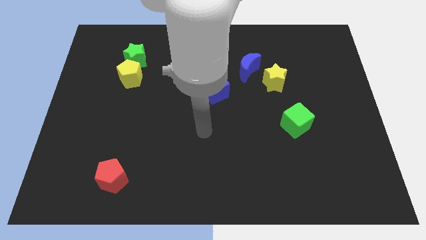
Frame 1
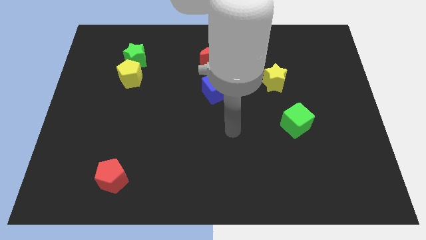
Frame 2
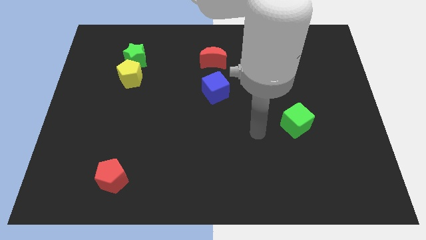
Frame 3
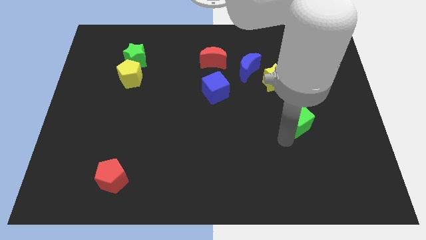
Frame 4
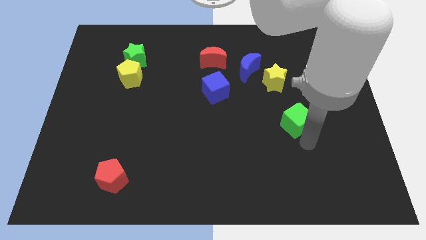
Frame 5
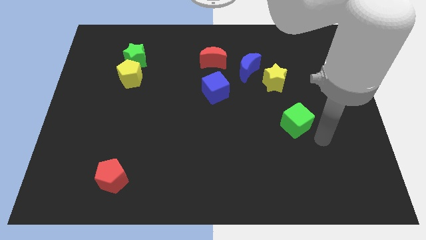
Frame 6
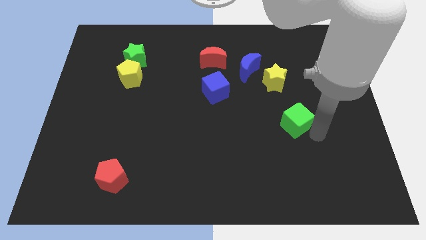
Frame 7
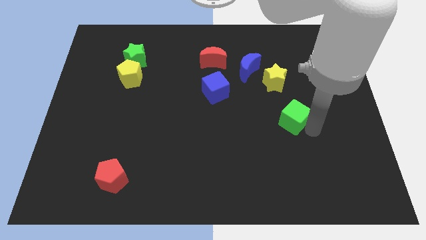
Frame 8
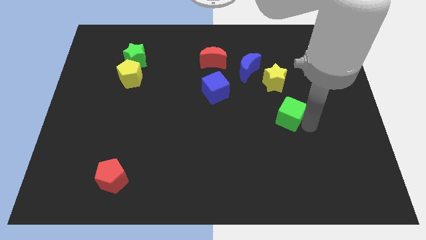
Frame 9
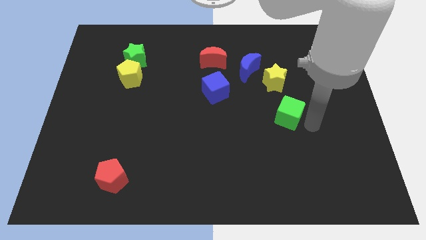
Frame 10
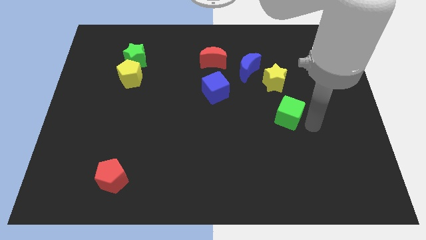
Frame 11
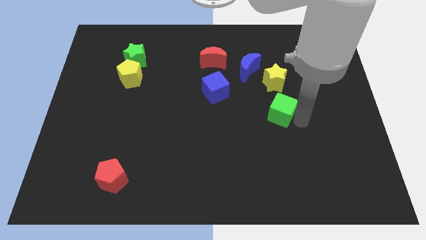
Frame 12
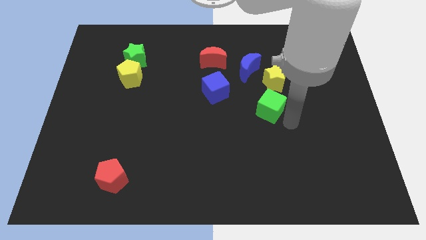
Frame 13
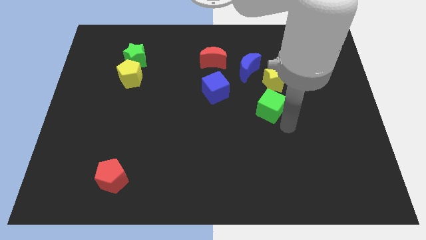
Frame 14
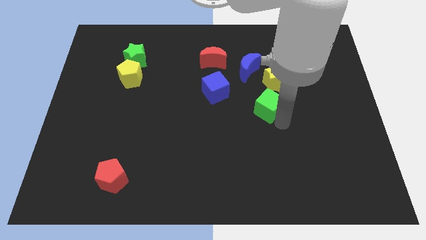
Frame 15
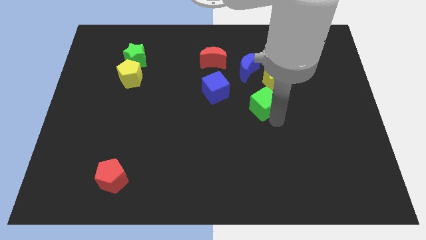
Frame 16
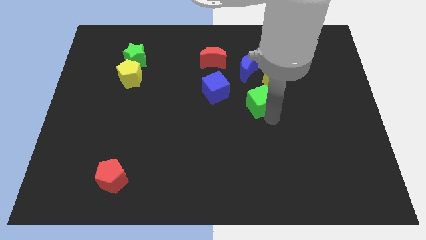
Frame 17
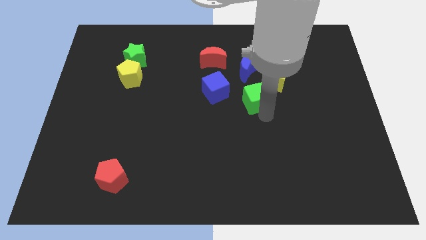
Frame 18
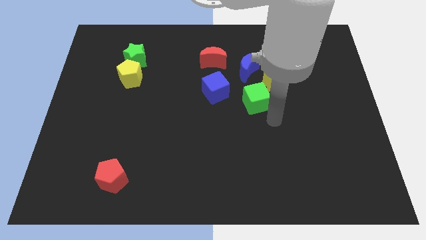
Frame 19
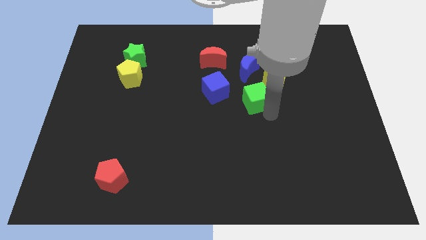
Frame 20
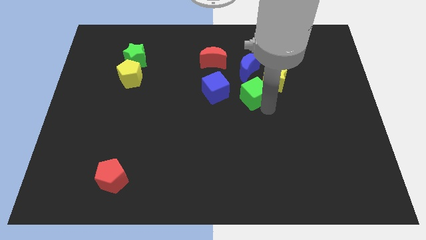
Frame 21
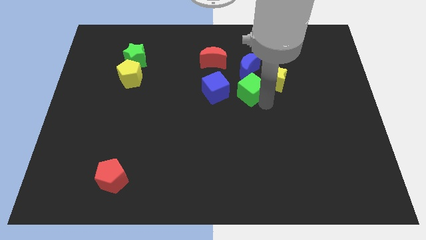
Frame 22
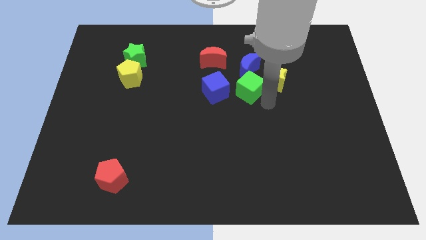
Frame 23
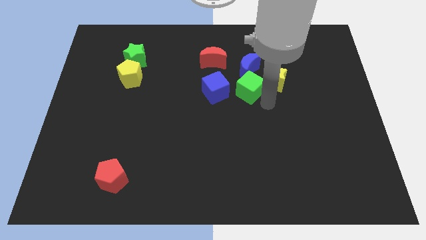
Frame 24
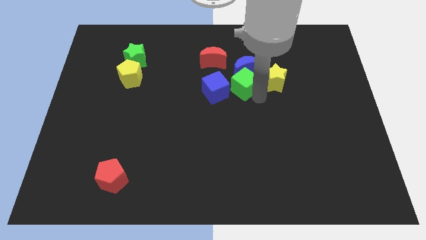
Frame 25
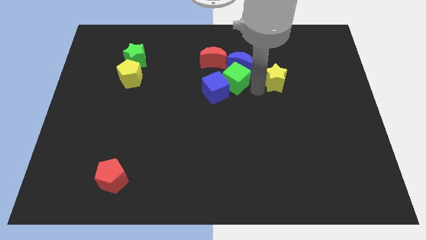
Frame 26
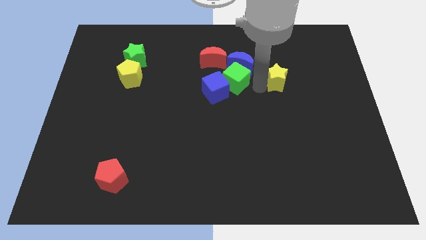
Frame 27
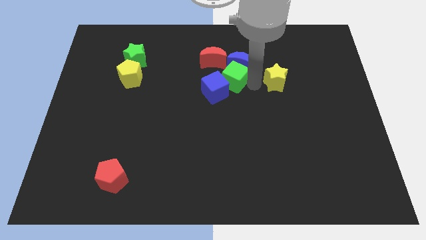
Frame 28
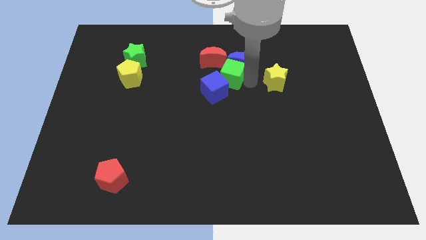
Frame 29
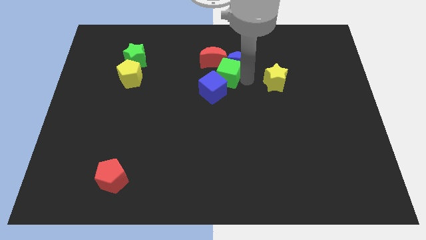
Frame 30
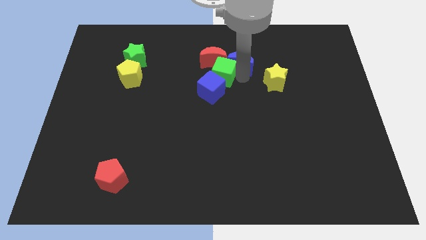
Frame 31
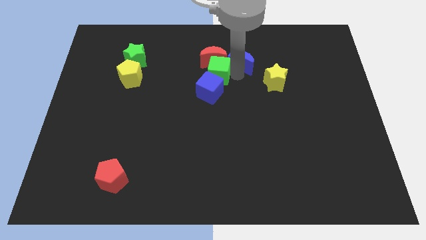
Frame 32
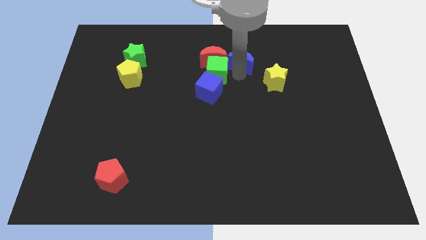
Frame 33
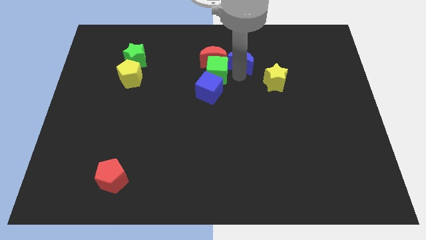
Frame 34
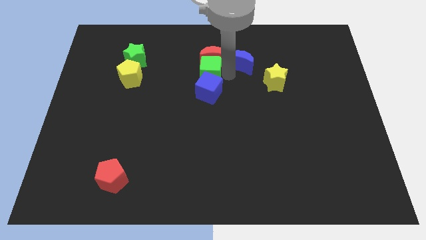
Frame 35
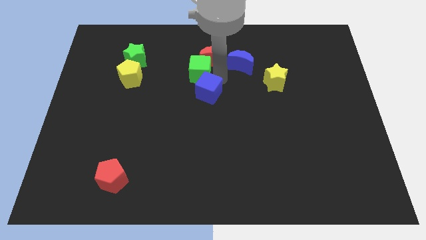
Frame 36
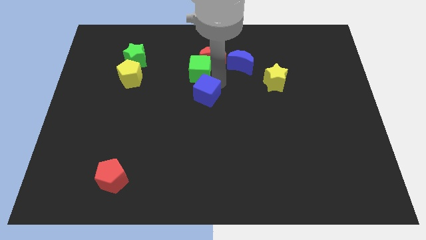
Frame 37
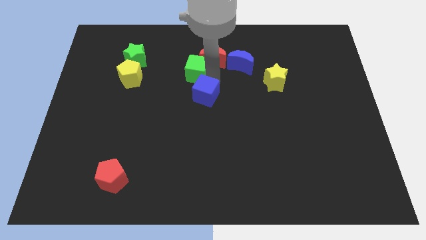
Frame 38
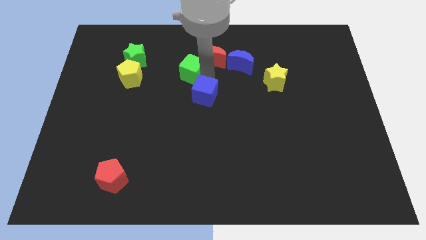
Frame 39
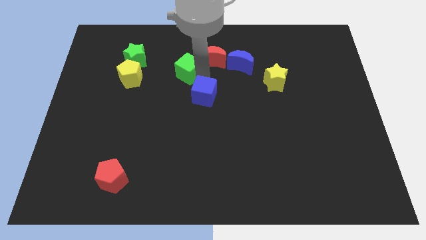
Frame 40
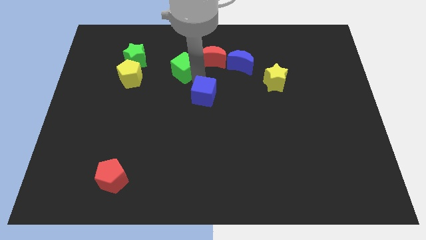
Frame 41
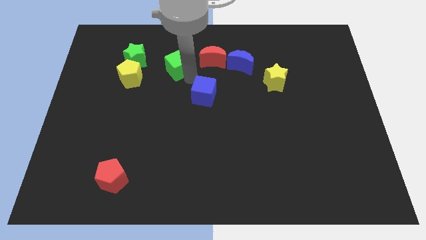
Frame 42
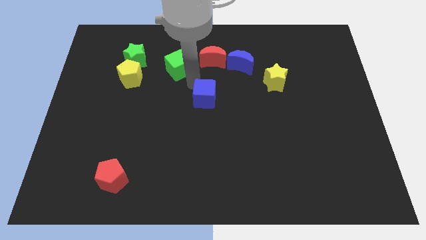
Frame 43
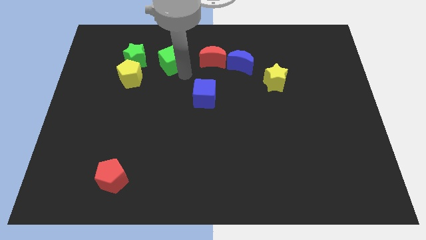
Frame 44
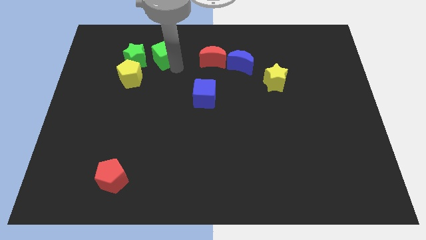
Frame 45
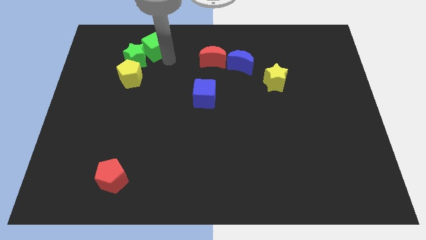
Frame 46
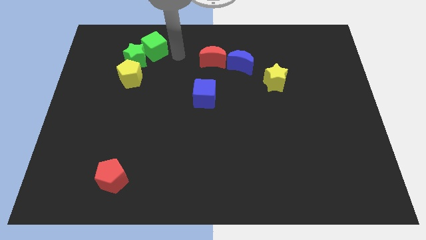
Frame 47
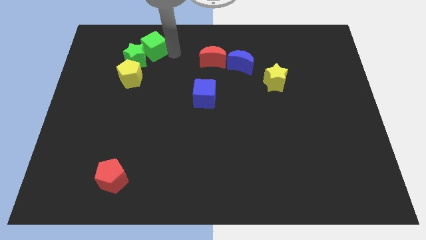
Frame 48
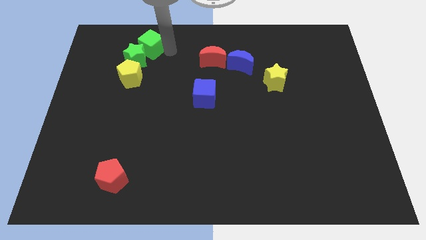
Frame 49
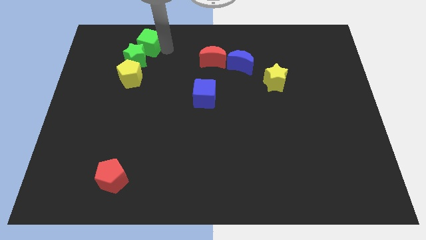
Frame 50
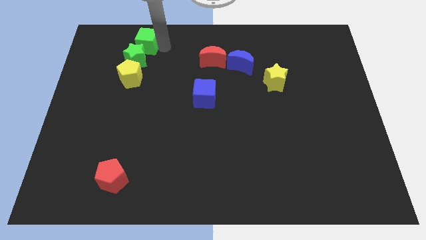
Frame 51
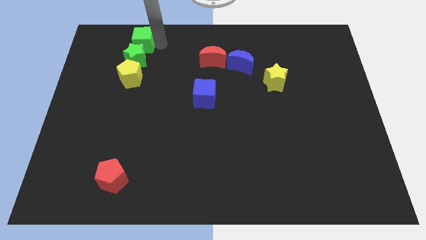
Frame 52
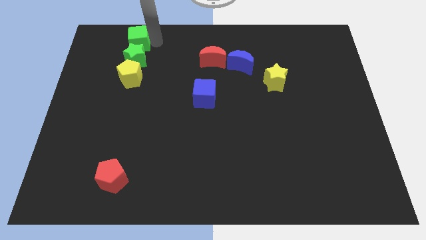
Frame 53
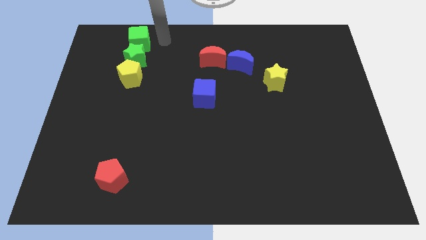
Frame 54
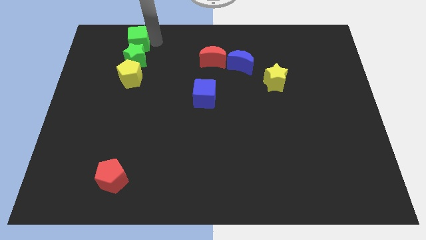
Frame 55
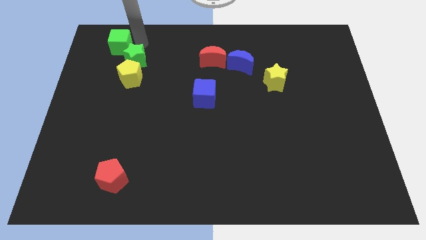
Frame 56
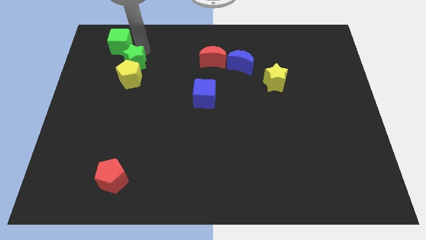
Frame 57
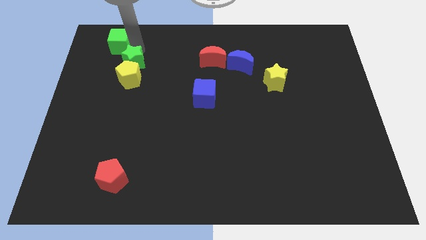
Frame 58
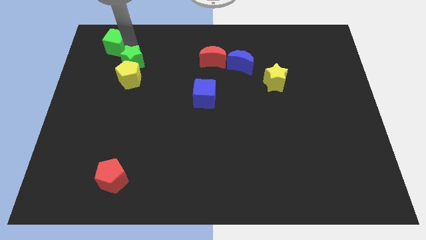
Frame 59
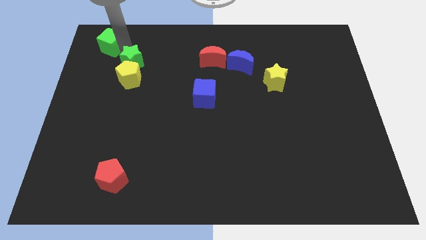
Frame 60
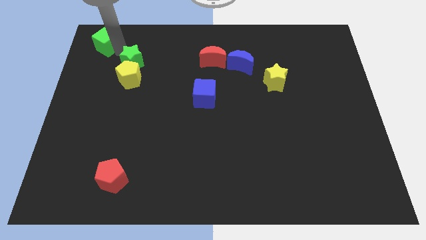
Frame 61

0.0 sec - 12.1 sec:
slide the green cube to the upper left corner

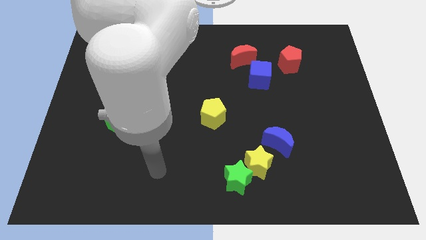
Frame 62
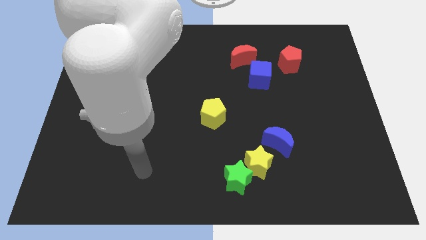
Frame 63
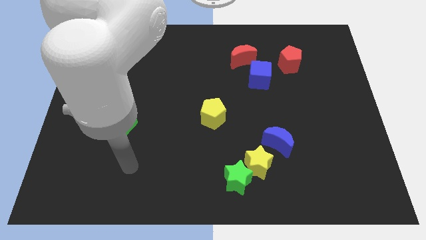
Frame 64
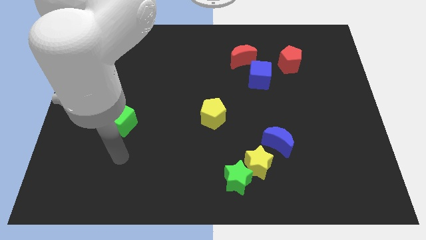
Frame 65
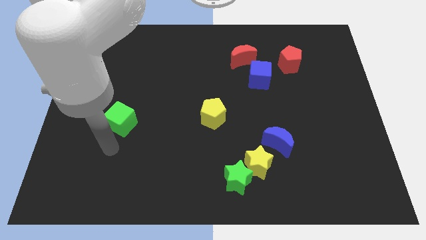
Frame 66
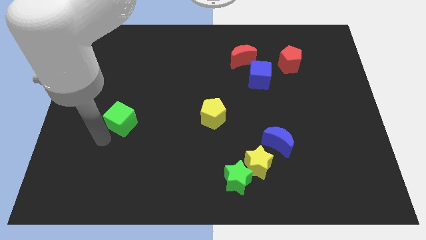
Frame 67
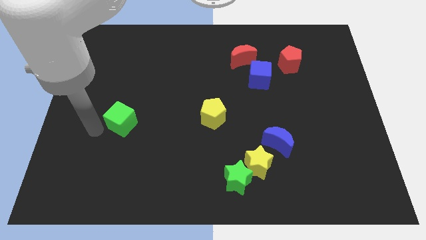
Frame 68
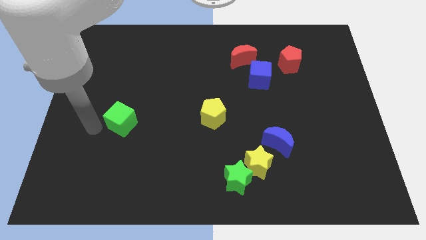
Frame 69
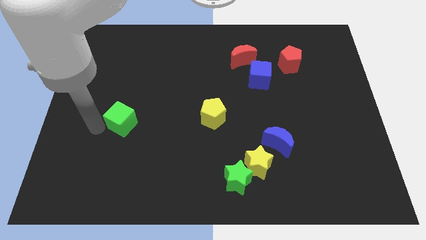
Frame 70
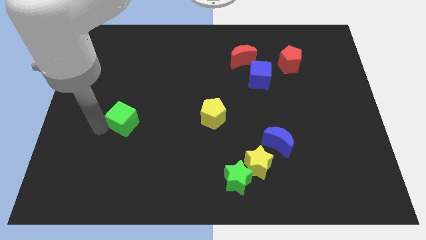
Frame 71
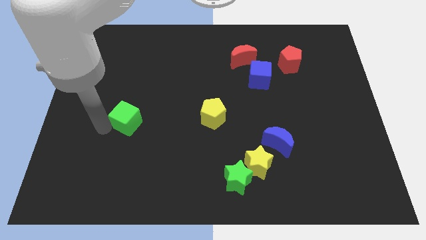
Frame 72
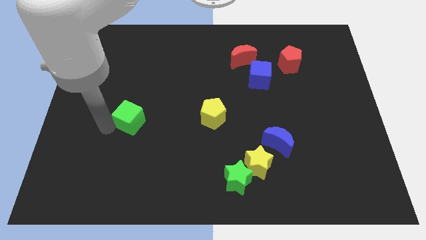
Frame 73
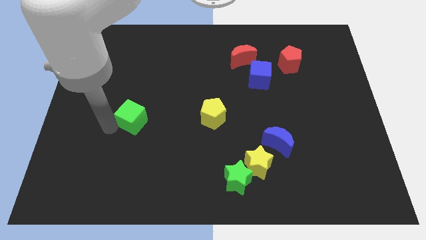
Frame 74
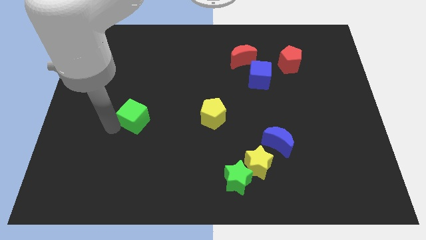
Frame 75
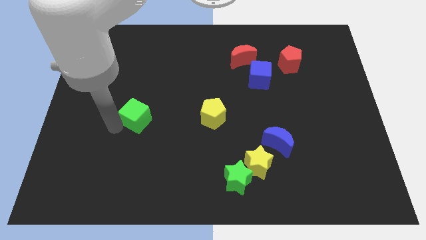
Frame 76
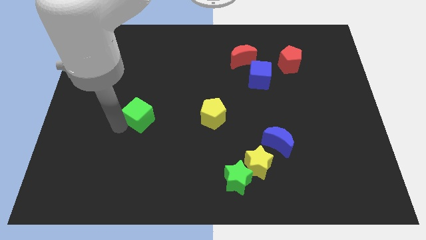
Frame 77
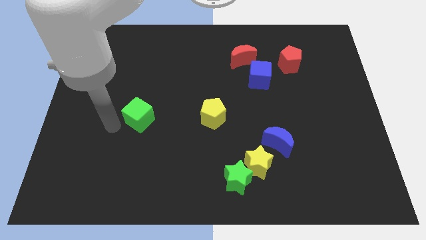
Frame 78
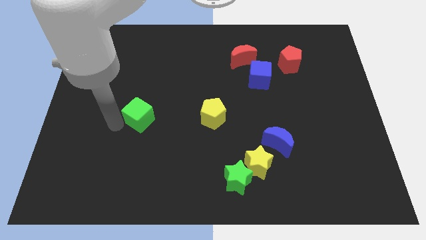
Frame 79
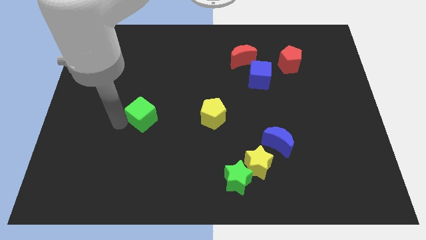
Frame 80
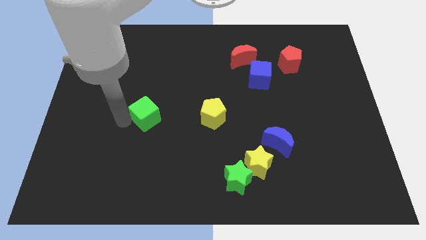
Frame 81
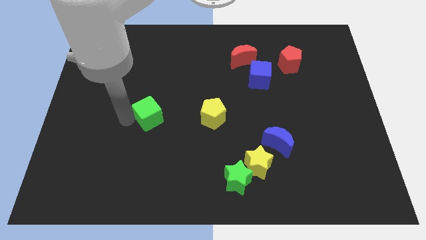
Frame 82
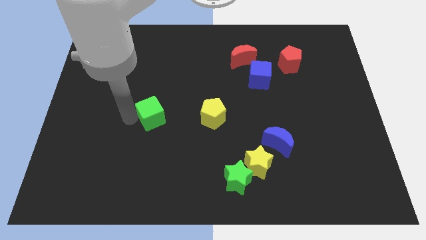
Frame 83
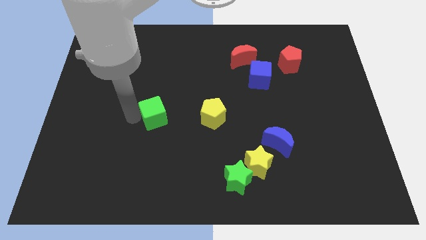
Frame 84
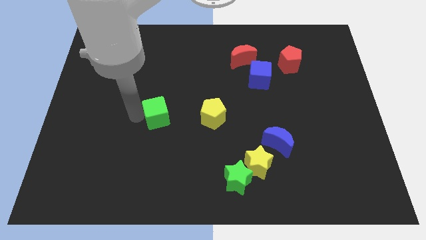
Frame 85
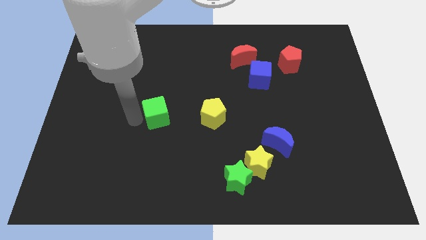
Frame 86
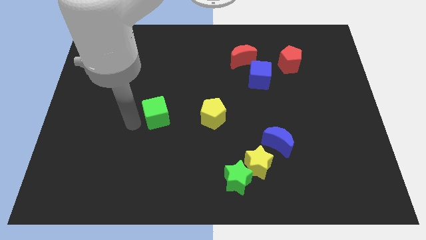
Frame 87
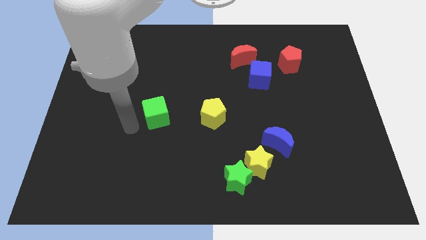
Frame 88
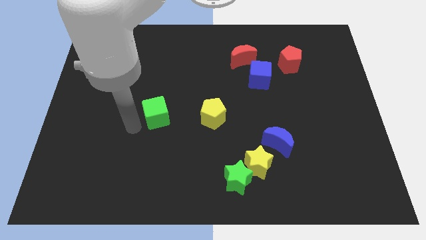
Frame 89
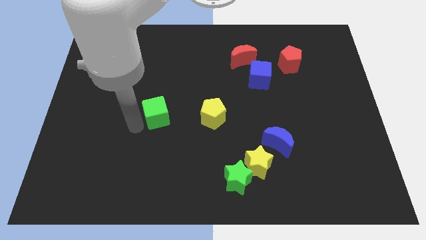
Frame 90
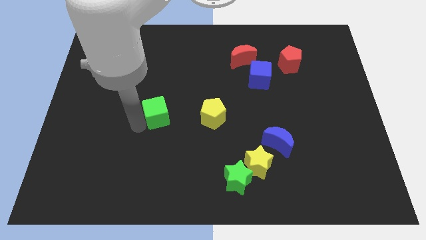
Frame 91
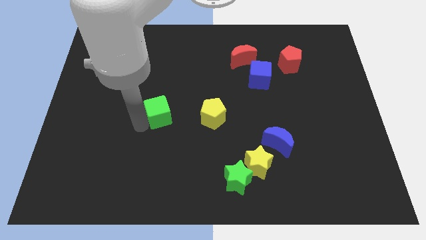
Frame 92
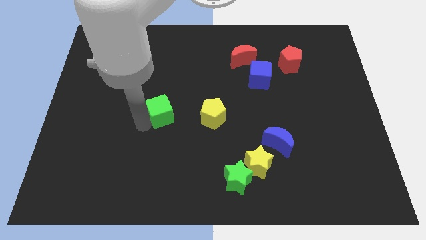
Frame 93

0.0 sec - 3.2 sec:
push the green cube to the center
